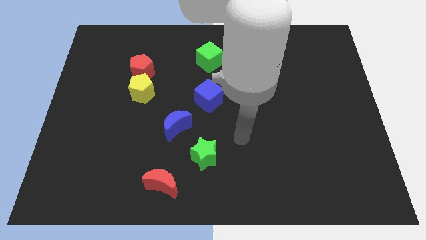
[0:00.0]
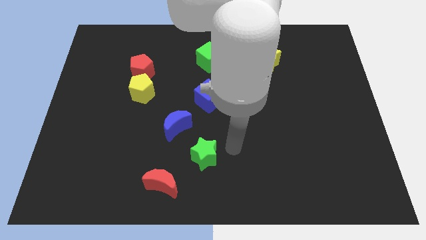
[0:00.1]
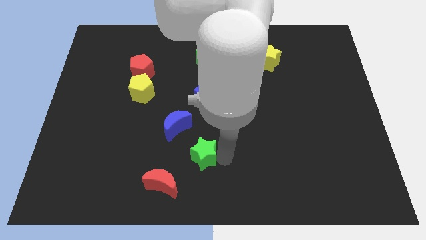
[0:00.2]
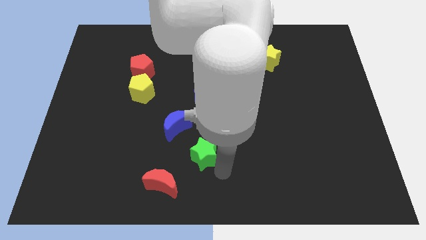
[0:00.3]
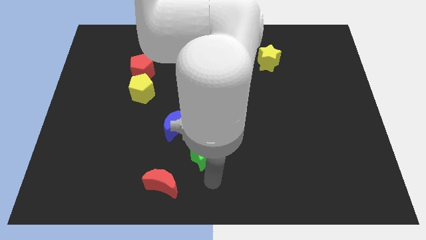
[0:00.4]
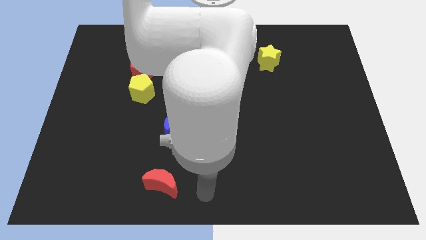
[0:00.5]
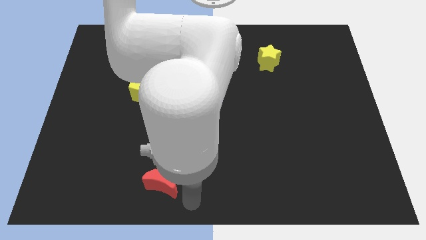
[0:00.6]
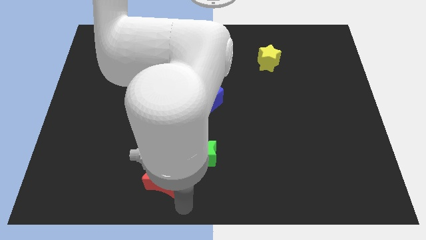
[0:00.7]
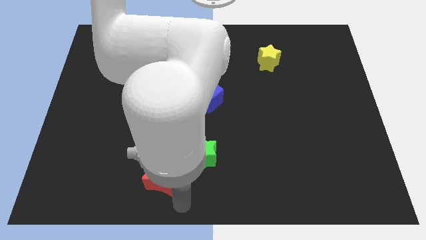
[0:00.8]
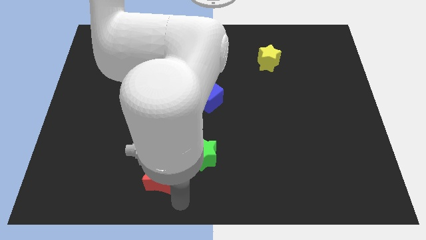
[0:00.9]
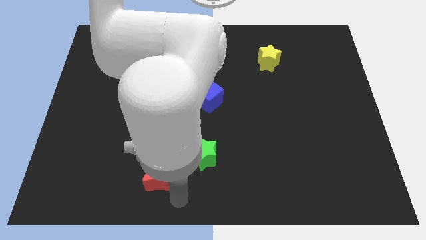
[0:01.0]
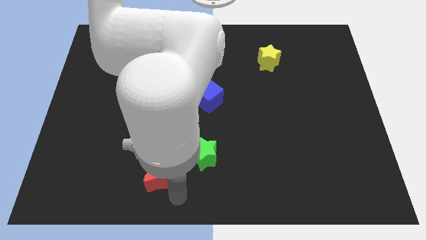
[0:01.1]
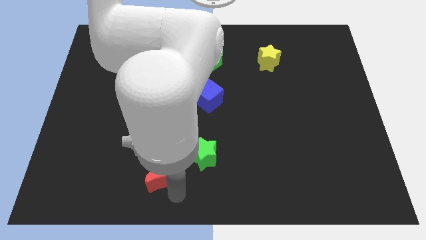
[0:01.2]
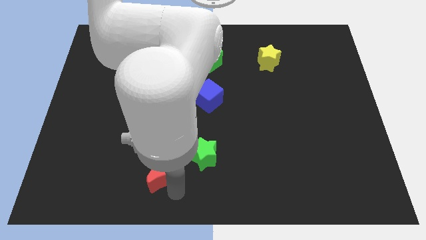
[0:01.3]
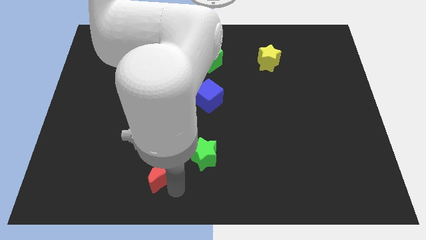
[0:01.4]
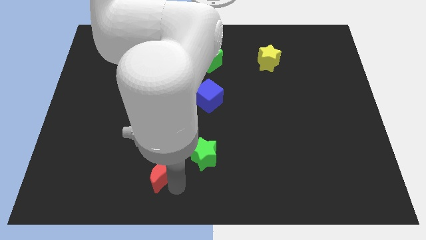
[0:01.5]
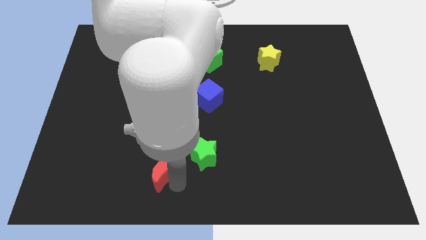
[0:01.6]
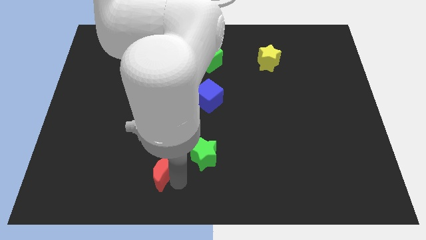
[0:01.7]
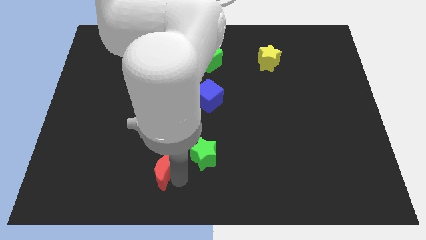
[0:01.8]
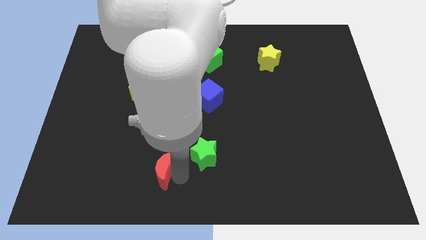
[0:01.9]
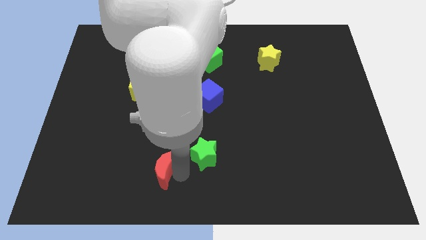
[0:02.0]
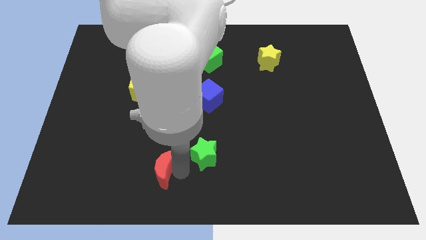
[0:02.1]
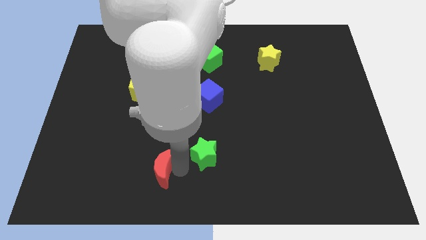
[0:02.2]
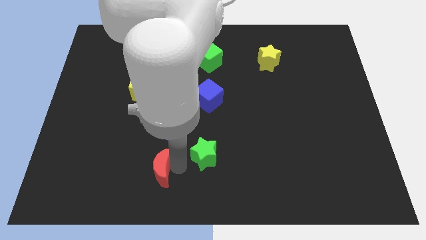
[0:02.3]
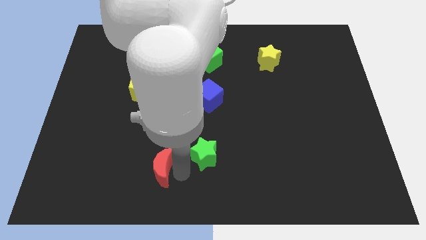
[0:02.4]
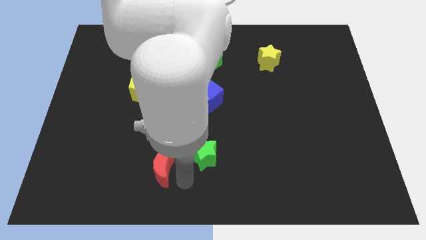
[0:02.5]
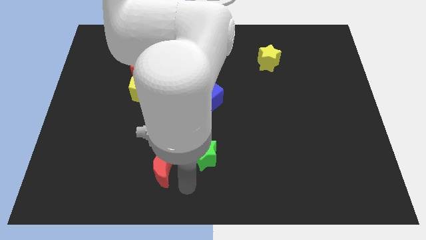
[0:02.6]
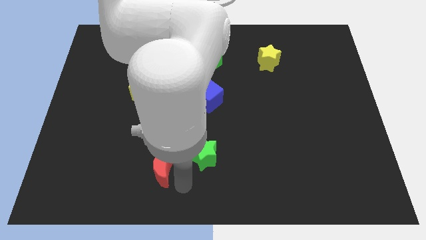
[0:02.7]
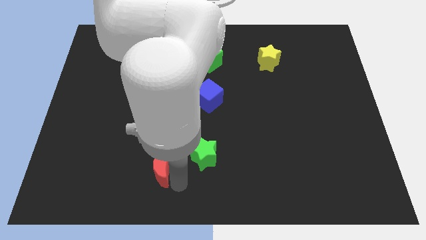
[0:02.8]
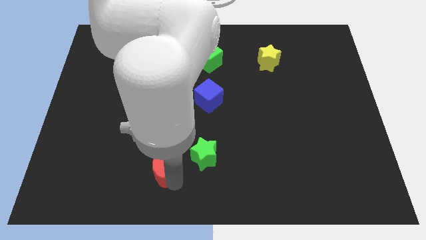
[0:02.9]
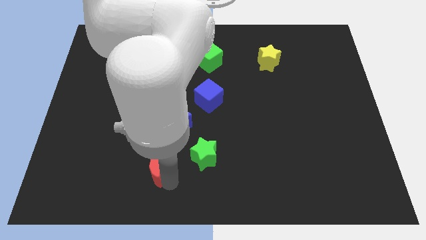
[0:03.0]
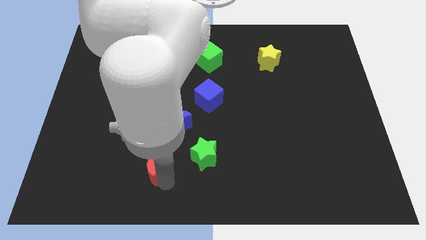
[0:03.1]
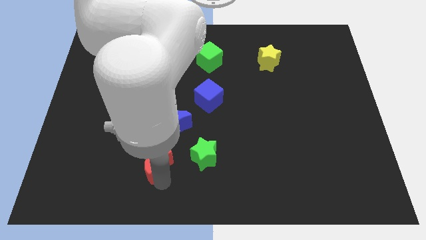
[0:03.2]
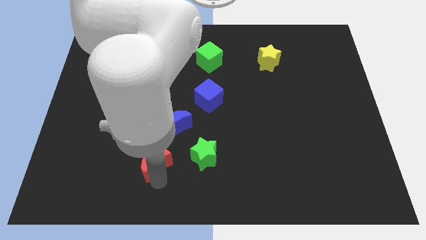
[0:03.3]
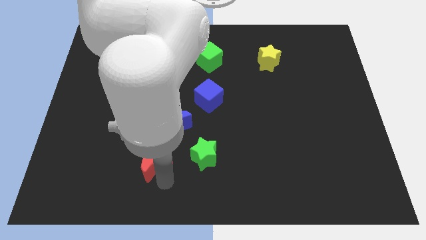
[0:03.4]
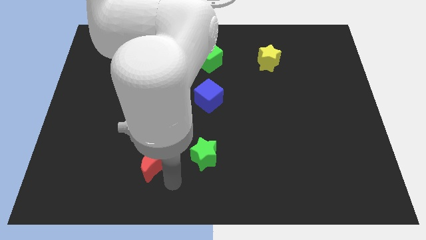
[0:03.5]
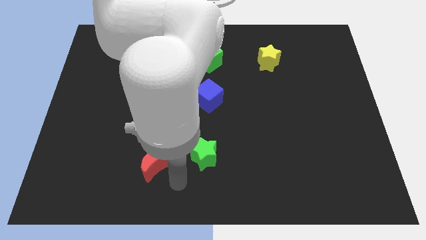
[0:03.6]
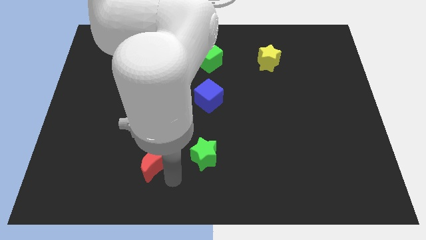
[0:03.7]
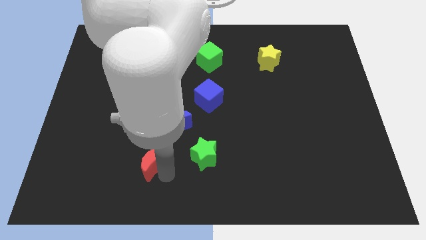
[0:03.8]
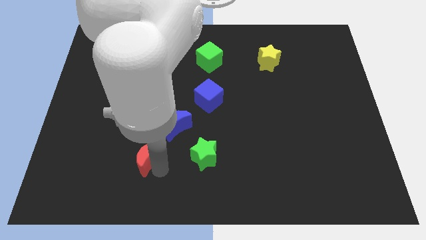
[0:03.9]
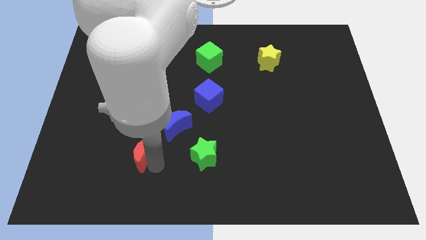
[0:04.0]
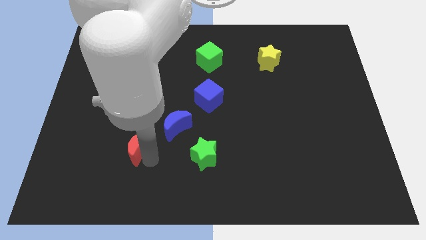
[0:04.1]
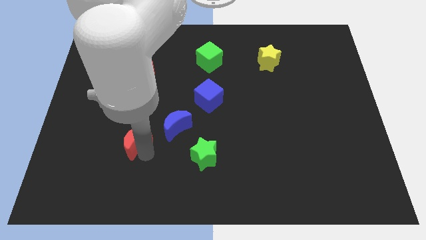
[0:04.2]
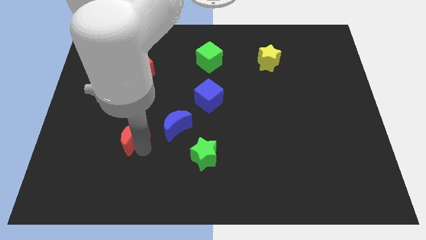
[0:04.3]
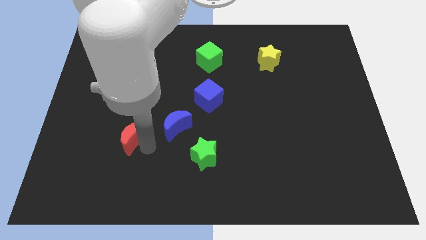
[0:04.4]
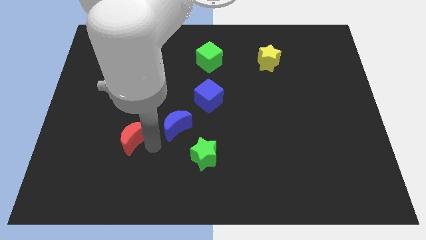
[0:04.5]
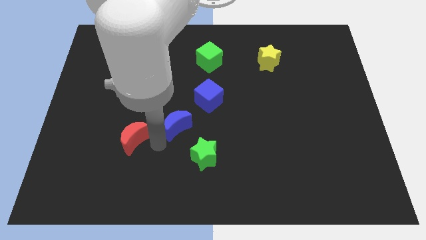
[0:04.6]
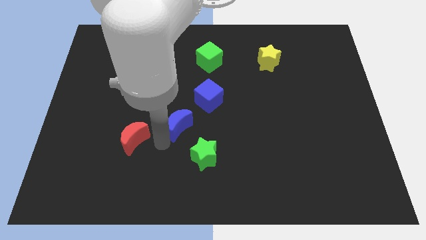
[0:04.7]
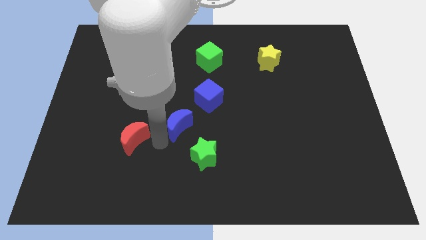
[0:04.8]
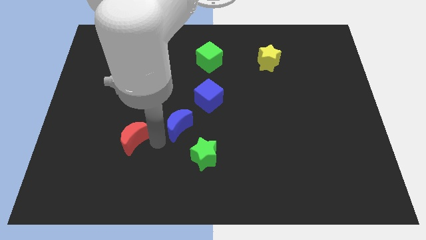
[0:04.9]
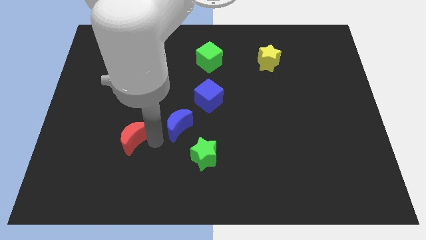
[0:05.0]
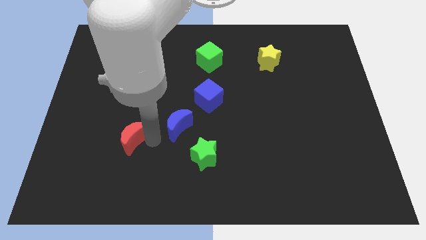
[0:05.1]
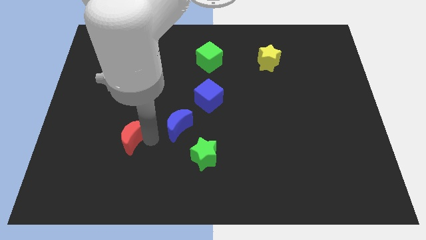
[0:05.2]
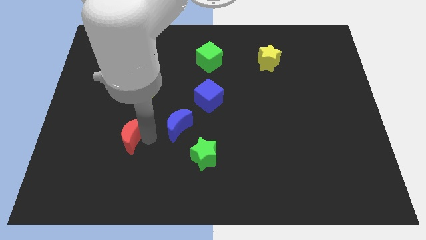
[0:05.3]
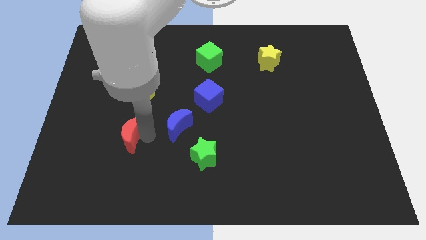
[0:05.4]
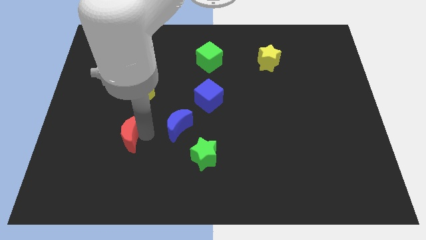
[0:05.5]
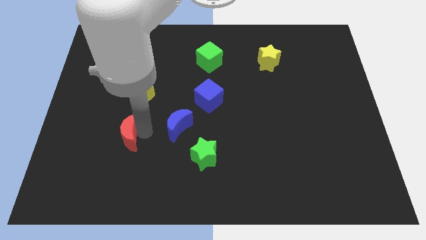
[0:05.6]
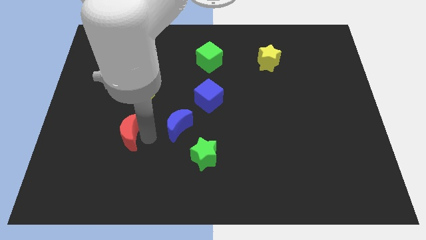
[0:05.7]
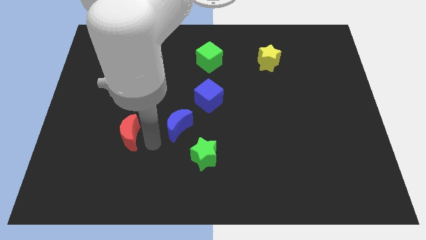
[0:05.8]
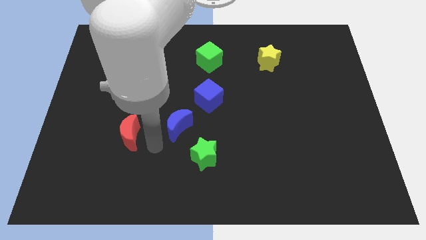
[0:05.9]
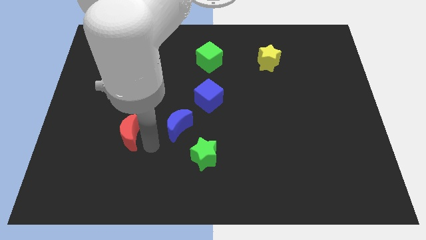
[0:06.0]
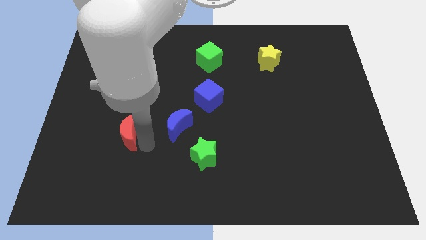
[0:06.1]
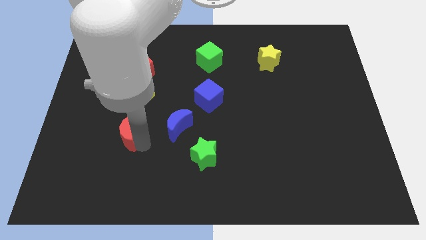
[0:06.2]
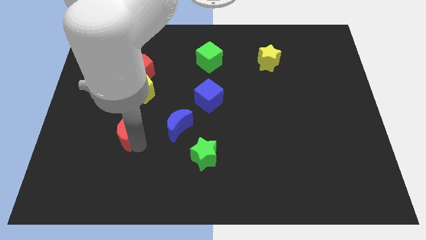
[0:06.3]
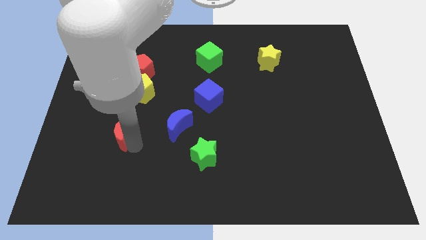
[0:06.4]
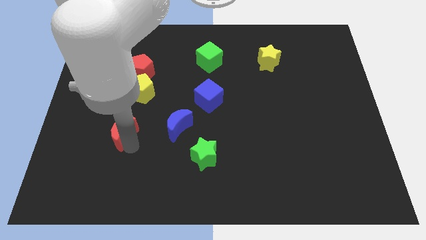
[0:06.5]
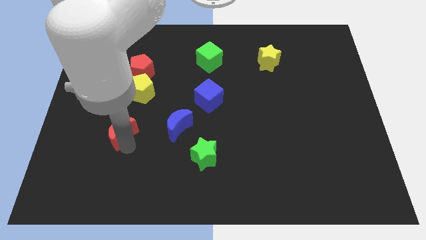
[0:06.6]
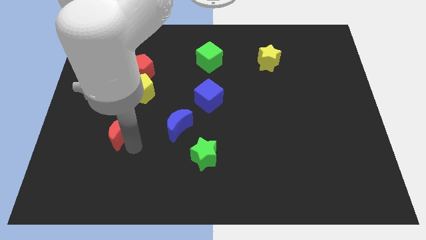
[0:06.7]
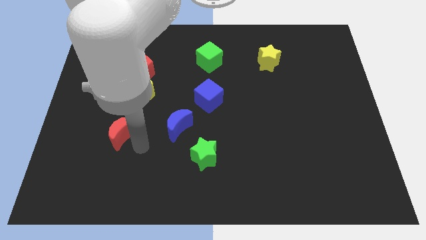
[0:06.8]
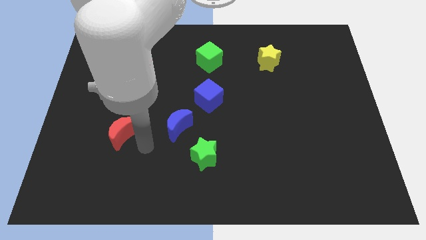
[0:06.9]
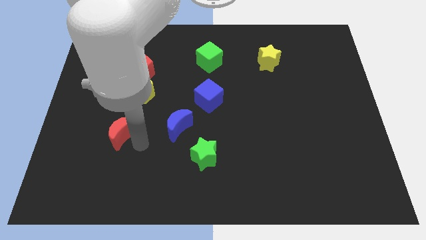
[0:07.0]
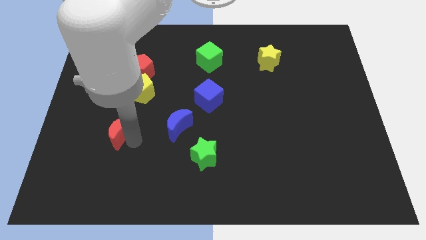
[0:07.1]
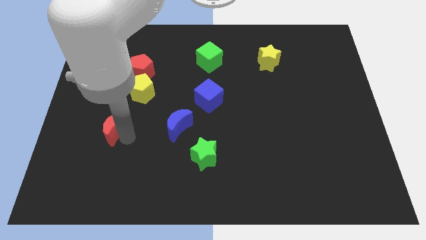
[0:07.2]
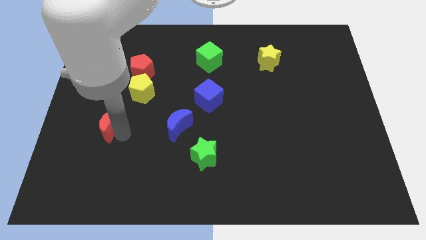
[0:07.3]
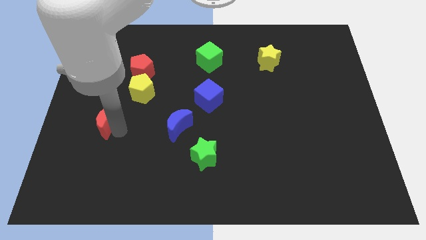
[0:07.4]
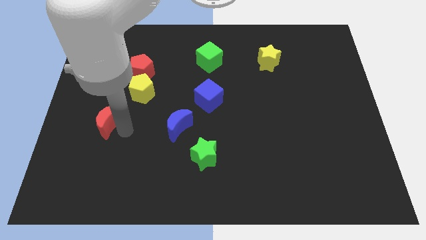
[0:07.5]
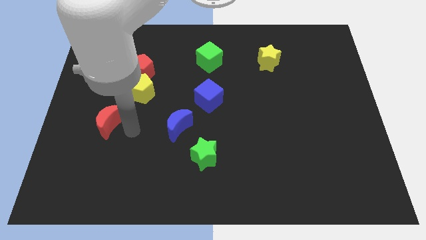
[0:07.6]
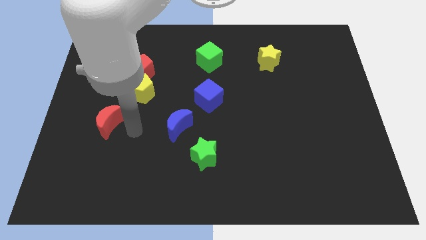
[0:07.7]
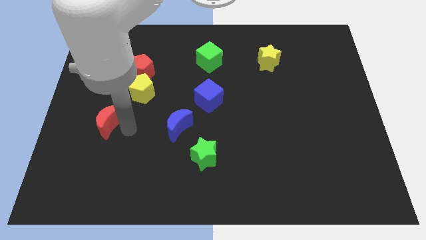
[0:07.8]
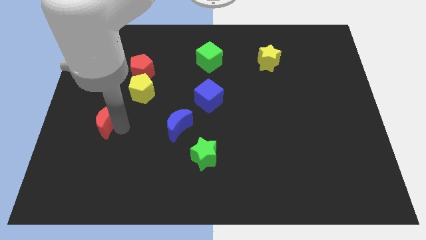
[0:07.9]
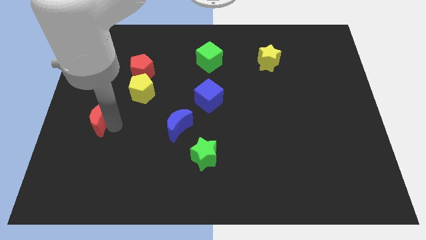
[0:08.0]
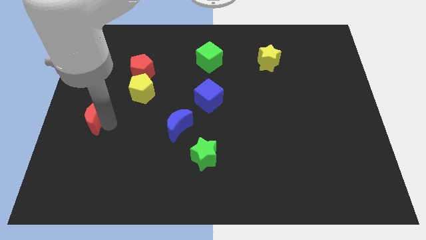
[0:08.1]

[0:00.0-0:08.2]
slide the red moon to the left side of the board
